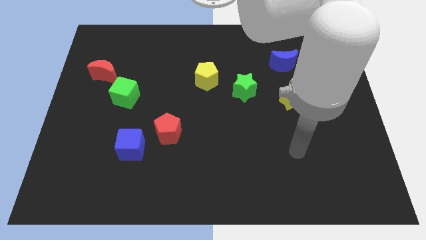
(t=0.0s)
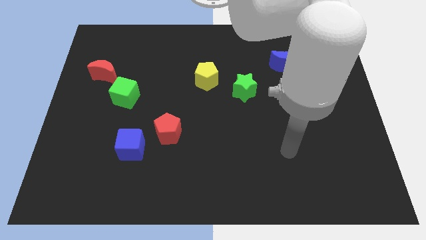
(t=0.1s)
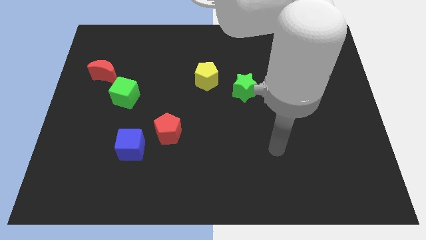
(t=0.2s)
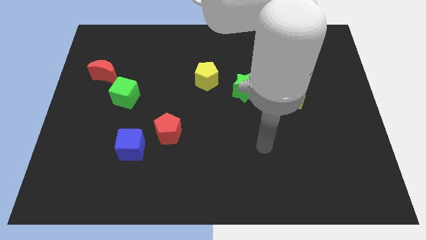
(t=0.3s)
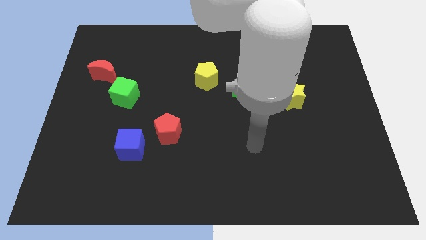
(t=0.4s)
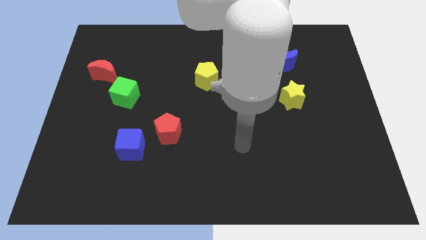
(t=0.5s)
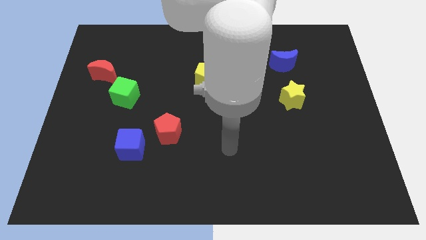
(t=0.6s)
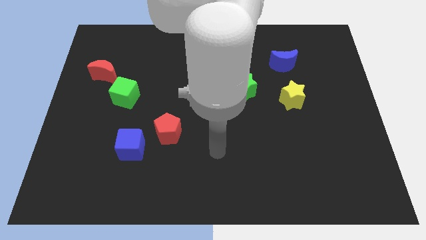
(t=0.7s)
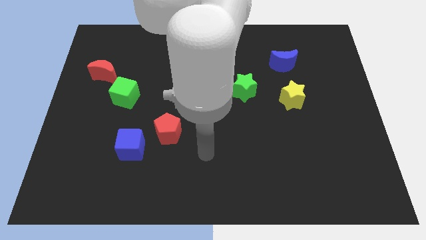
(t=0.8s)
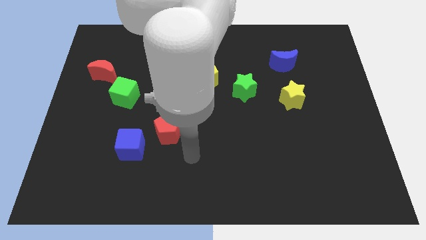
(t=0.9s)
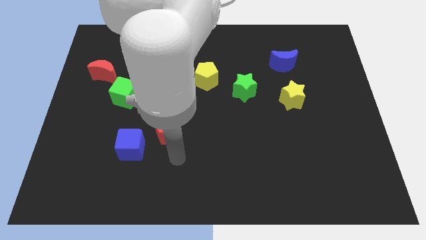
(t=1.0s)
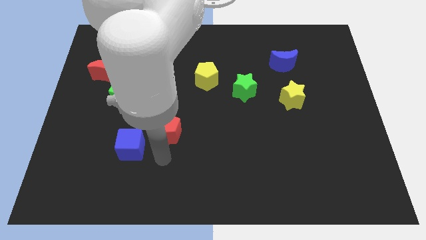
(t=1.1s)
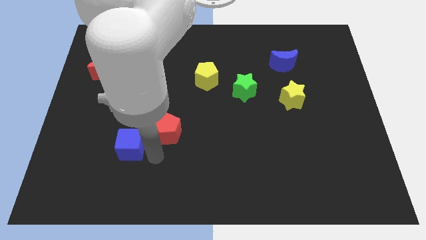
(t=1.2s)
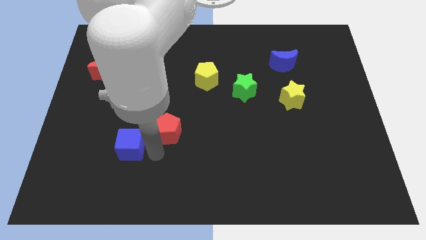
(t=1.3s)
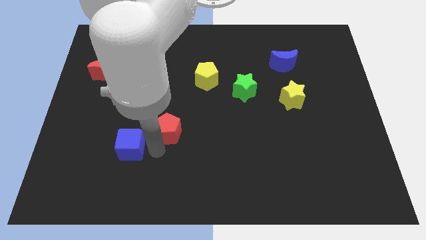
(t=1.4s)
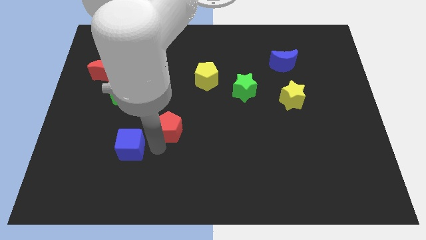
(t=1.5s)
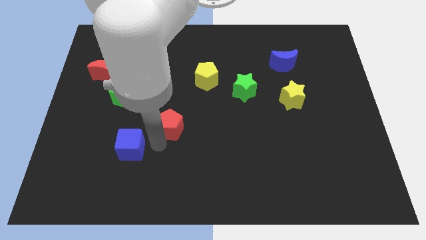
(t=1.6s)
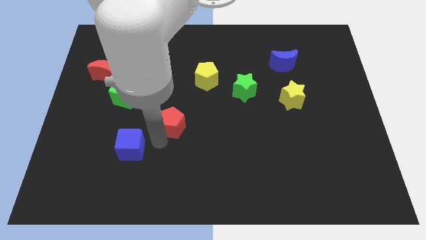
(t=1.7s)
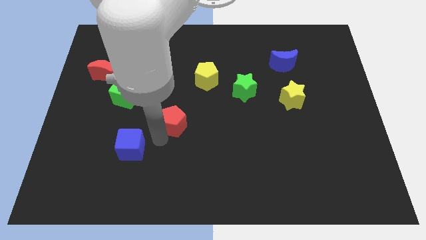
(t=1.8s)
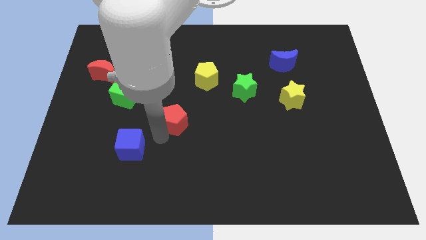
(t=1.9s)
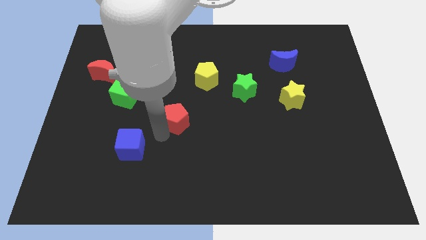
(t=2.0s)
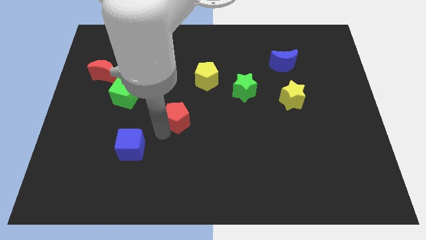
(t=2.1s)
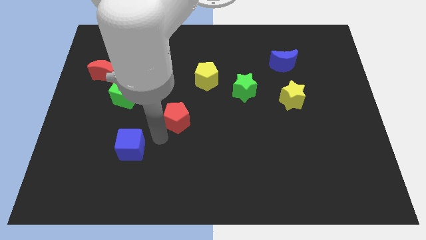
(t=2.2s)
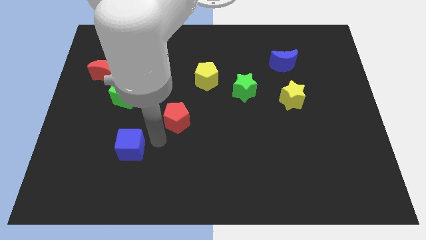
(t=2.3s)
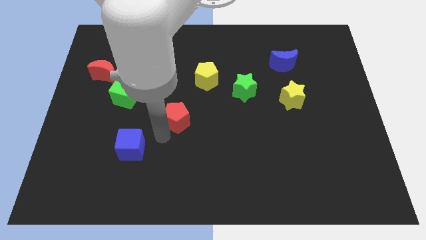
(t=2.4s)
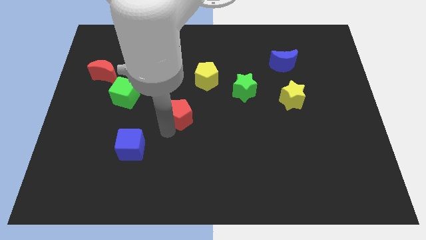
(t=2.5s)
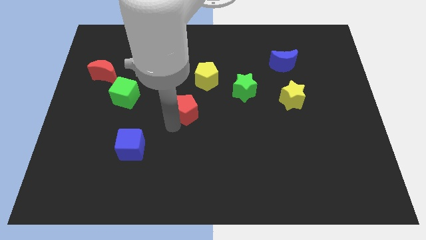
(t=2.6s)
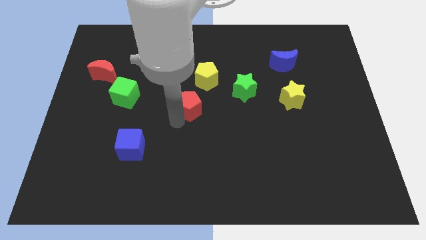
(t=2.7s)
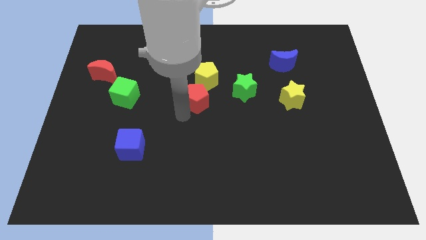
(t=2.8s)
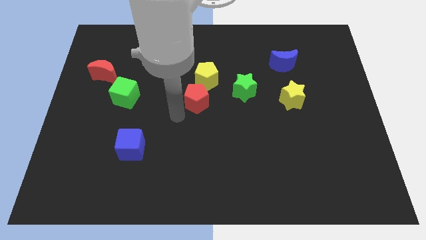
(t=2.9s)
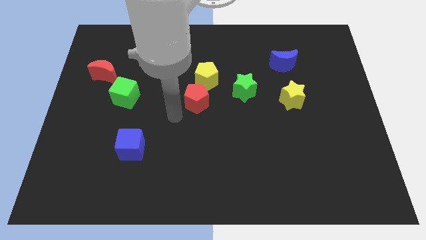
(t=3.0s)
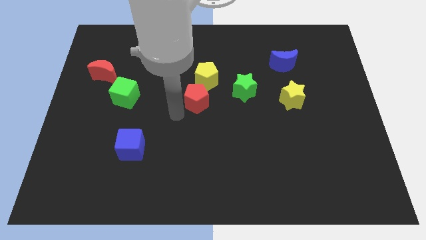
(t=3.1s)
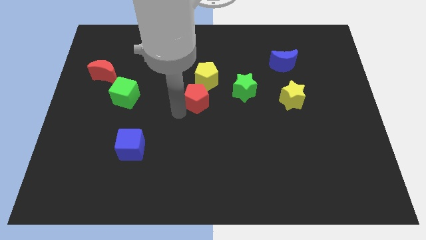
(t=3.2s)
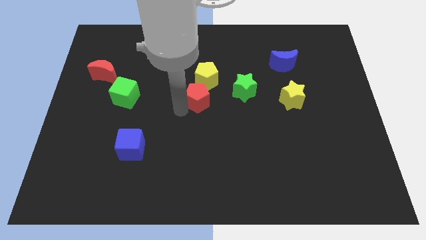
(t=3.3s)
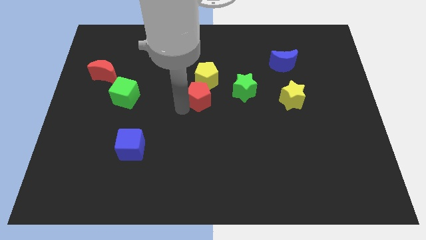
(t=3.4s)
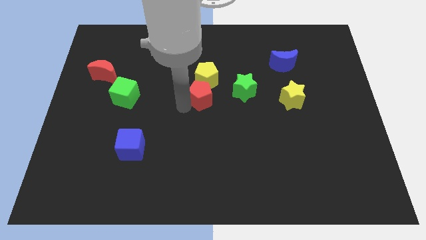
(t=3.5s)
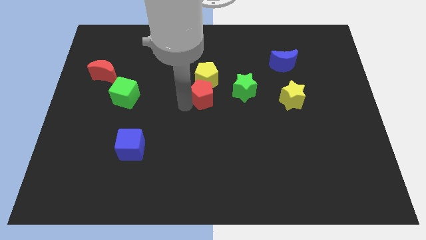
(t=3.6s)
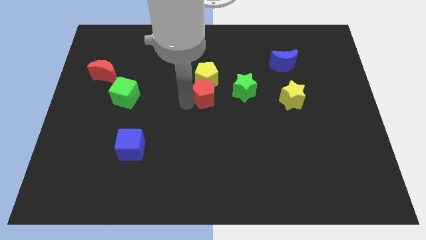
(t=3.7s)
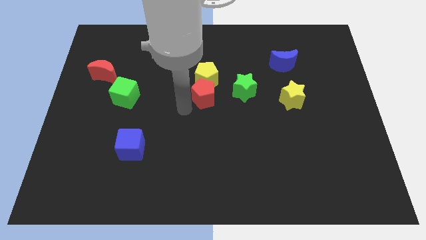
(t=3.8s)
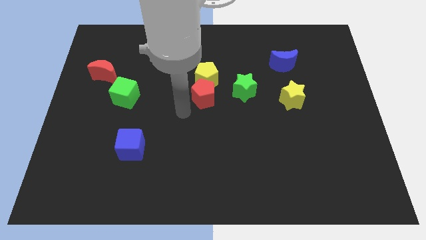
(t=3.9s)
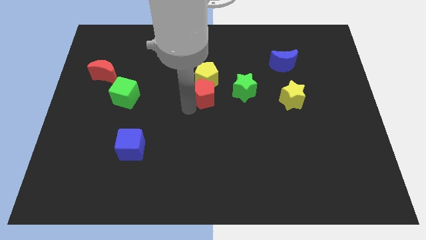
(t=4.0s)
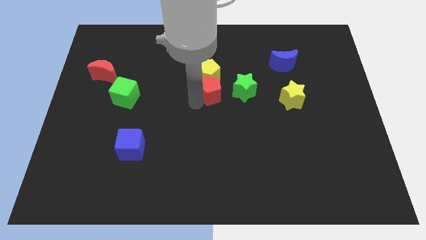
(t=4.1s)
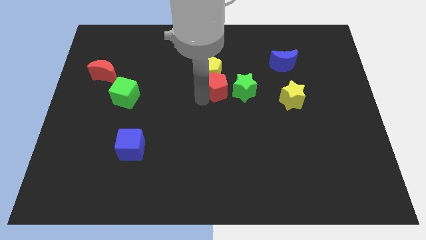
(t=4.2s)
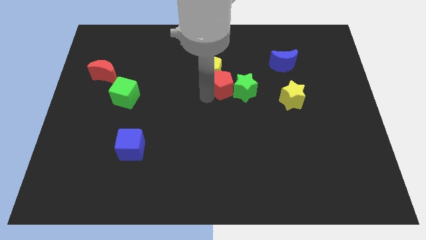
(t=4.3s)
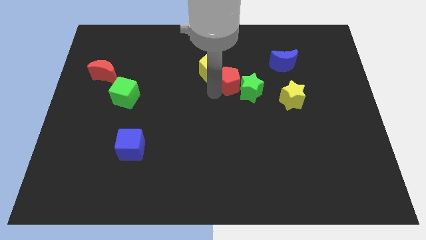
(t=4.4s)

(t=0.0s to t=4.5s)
slide the red pentagon upwards and right

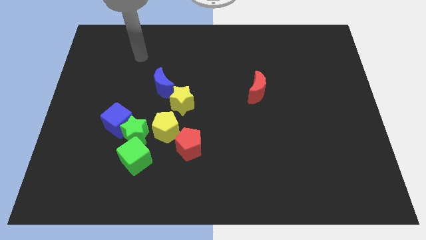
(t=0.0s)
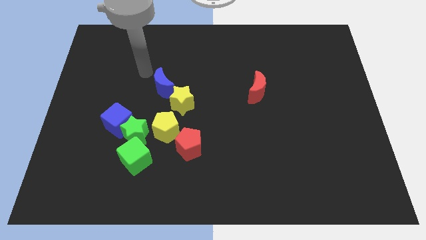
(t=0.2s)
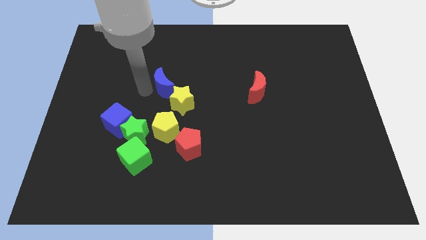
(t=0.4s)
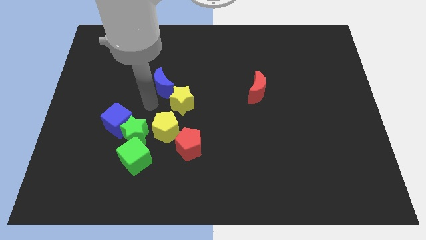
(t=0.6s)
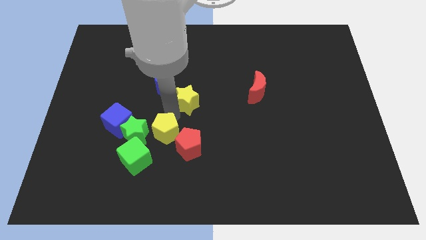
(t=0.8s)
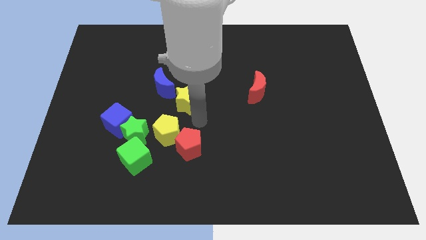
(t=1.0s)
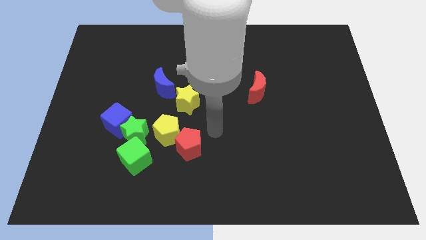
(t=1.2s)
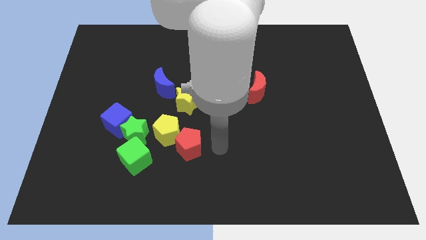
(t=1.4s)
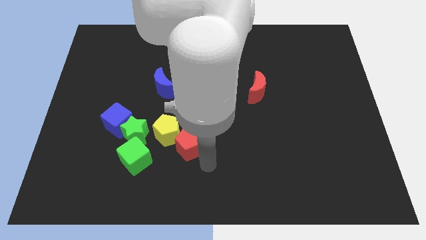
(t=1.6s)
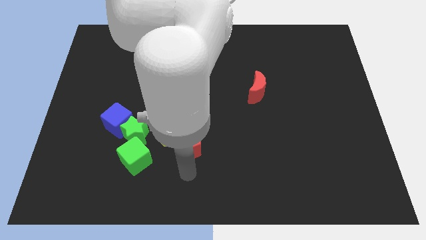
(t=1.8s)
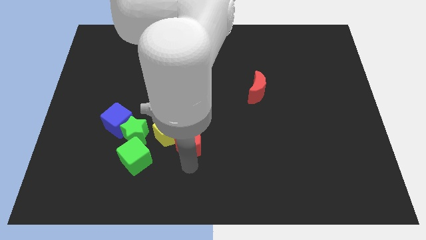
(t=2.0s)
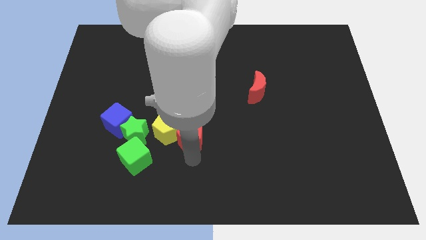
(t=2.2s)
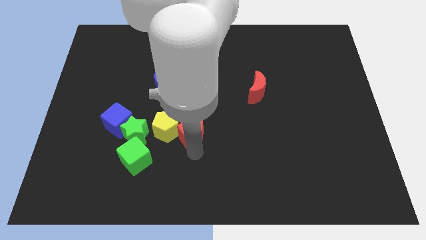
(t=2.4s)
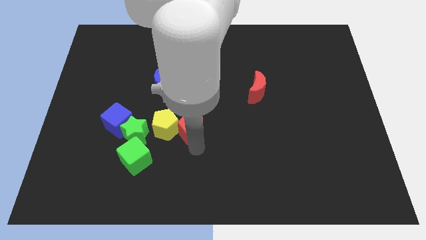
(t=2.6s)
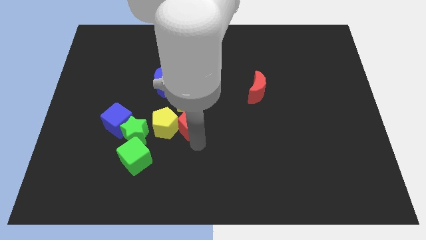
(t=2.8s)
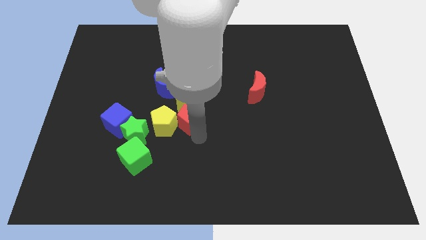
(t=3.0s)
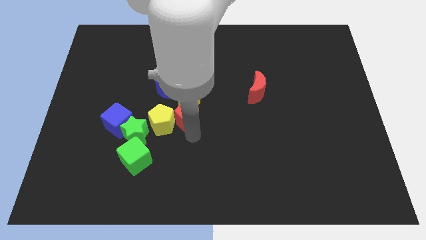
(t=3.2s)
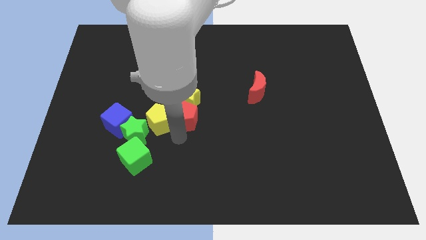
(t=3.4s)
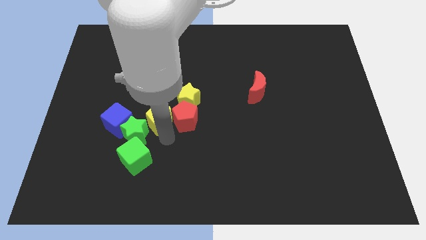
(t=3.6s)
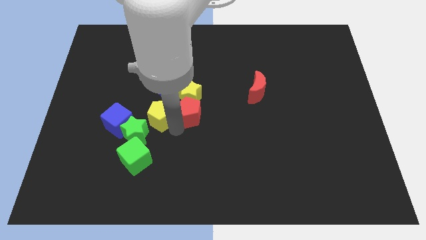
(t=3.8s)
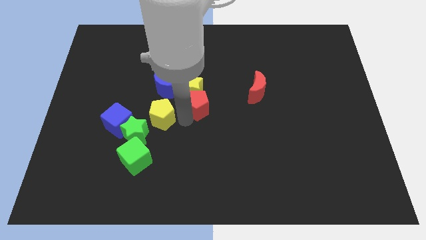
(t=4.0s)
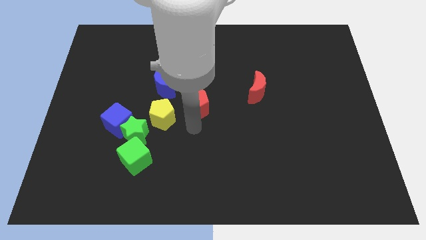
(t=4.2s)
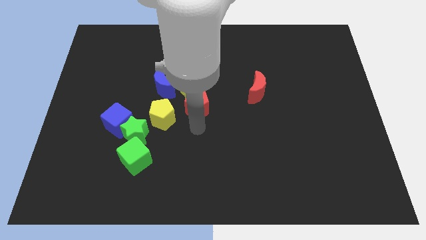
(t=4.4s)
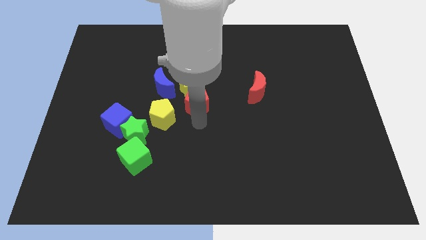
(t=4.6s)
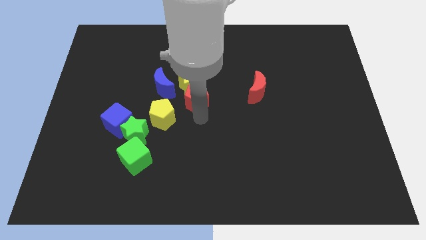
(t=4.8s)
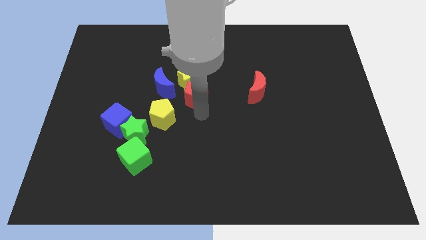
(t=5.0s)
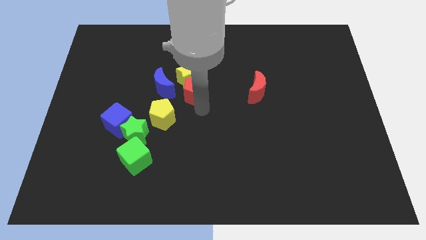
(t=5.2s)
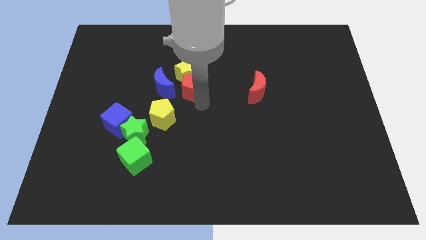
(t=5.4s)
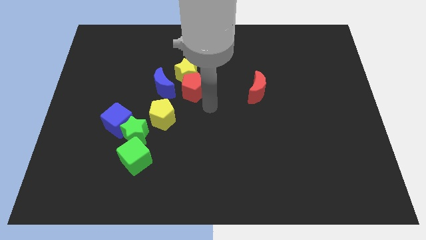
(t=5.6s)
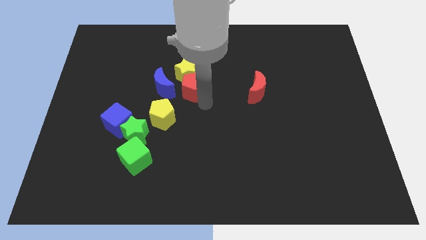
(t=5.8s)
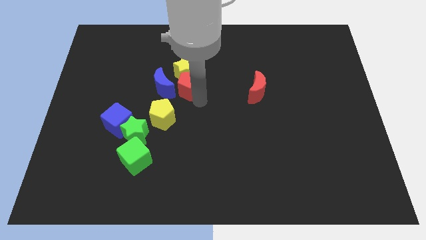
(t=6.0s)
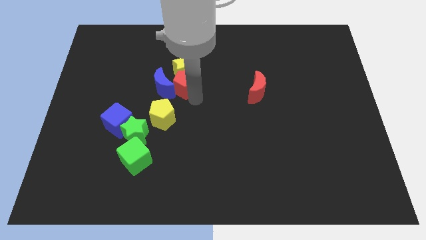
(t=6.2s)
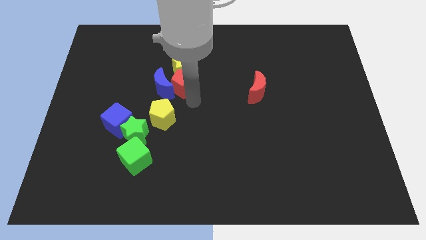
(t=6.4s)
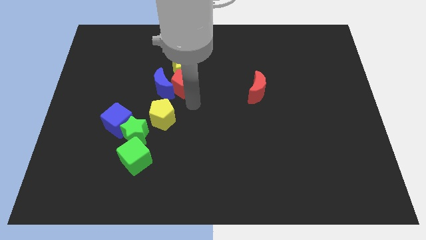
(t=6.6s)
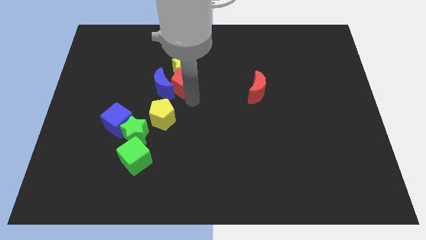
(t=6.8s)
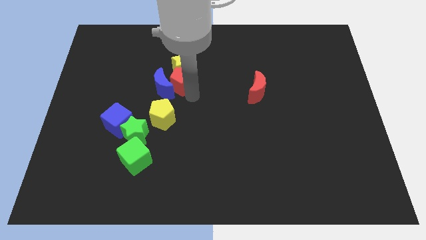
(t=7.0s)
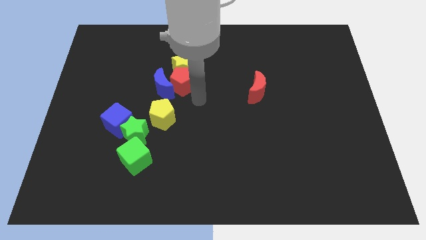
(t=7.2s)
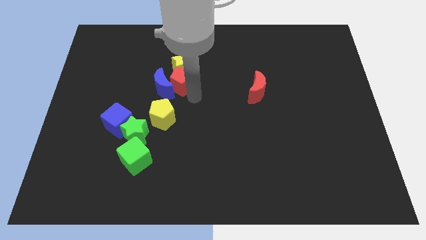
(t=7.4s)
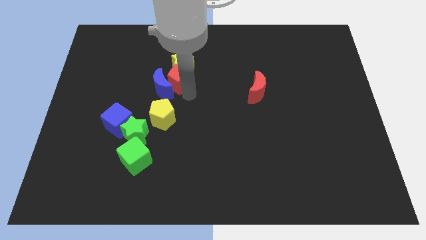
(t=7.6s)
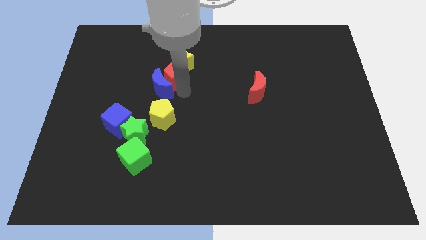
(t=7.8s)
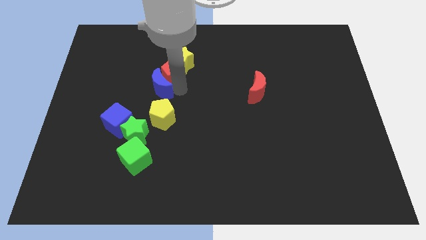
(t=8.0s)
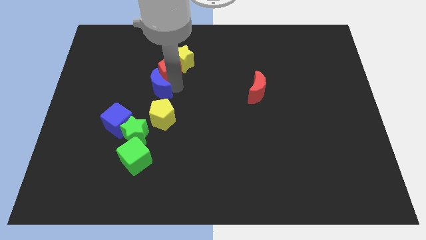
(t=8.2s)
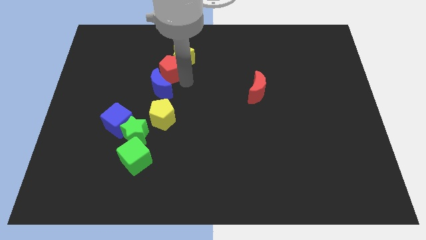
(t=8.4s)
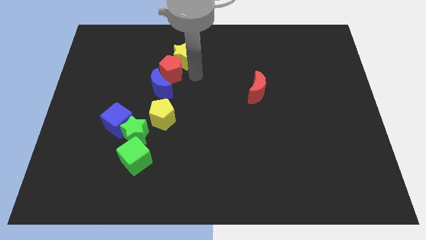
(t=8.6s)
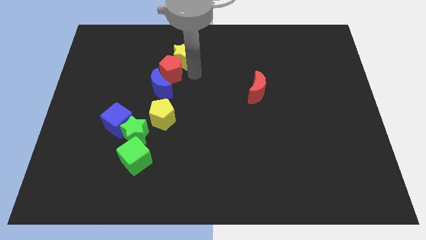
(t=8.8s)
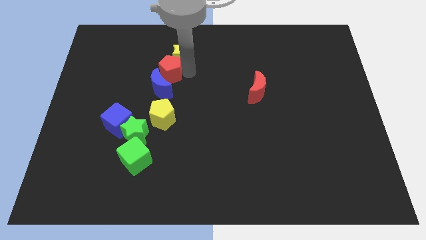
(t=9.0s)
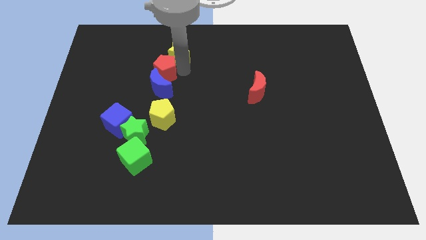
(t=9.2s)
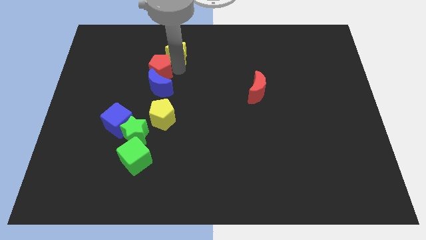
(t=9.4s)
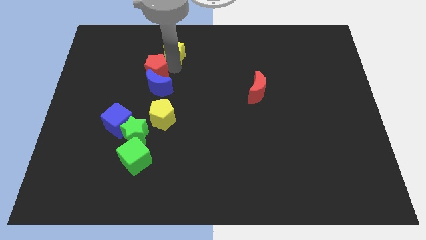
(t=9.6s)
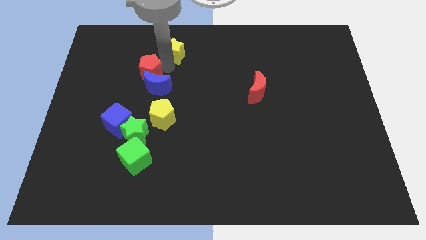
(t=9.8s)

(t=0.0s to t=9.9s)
push the red pentagon diagonally up and to the left
